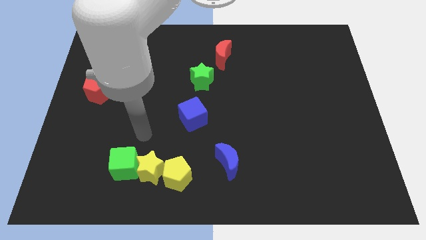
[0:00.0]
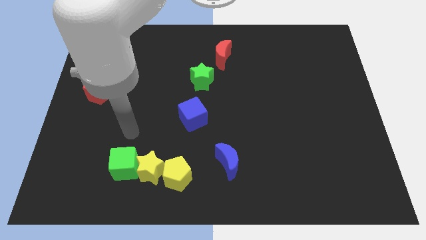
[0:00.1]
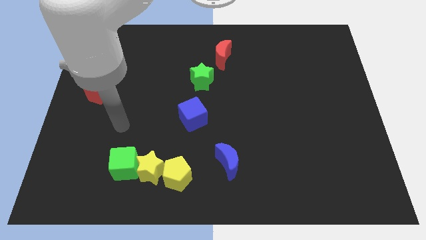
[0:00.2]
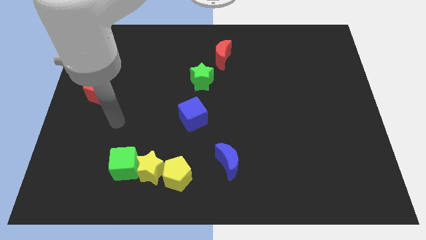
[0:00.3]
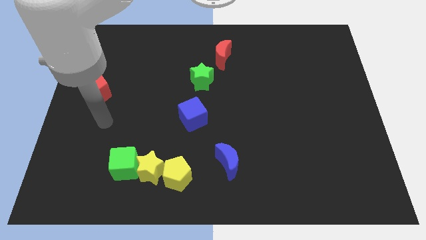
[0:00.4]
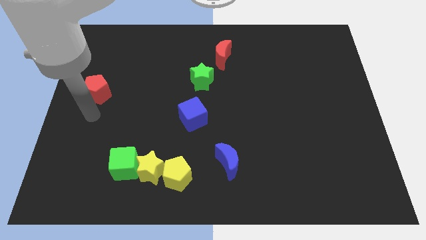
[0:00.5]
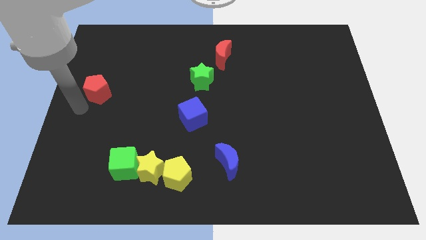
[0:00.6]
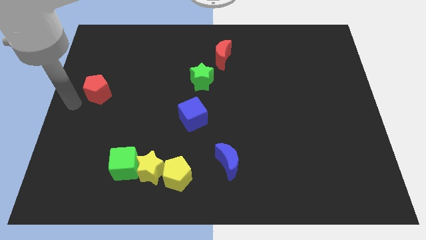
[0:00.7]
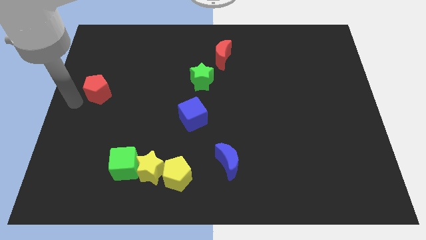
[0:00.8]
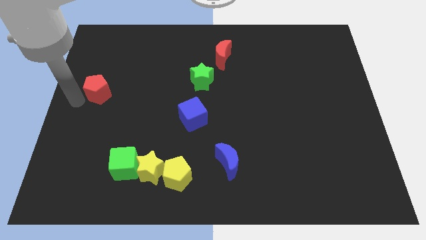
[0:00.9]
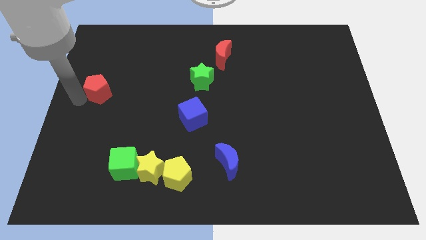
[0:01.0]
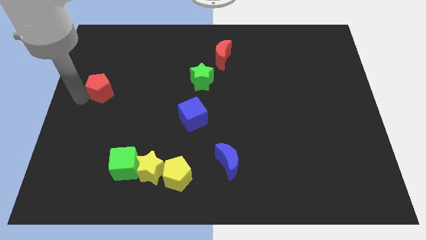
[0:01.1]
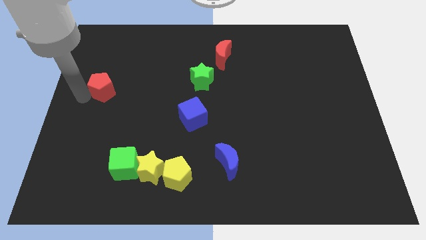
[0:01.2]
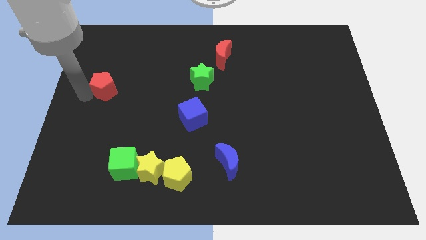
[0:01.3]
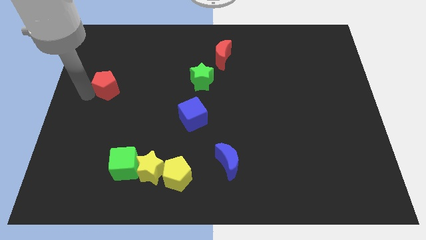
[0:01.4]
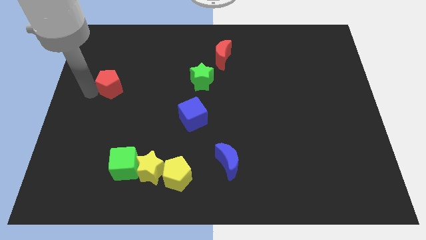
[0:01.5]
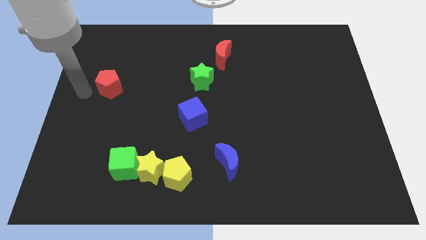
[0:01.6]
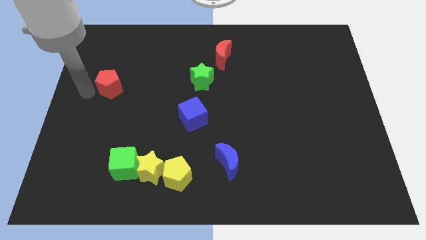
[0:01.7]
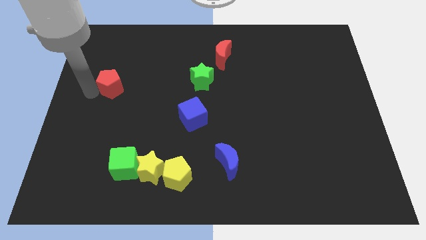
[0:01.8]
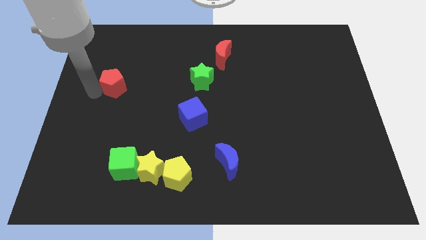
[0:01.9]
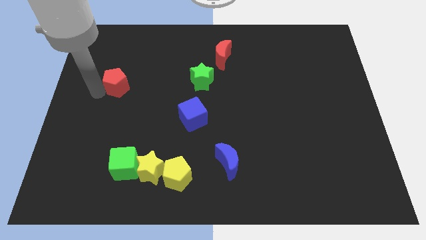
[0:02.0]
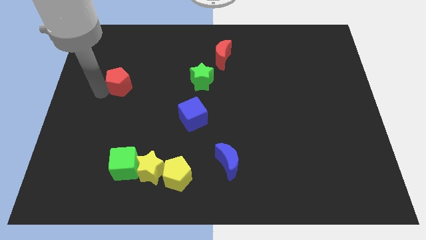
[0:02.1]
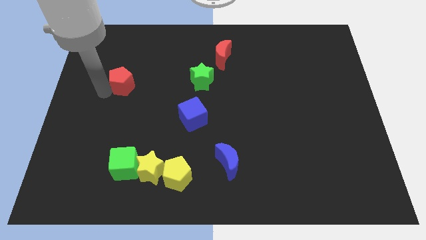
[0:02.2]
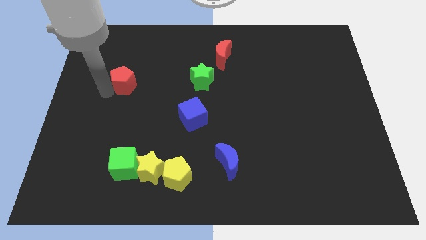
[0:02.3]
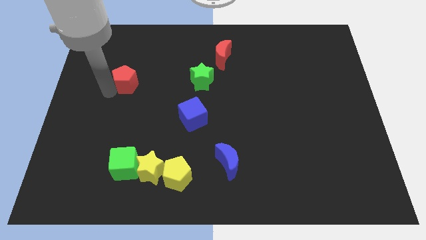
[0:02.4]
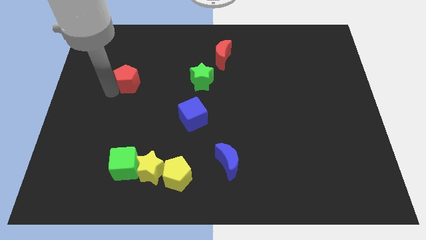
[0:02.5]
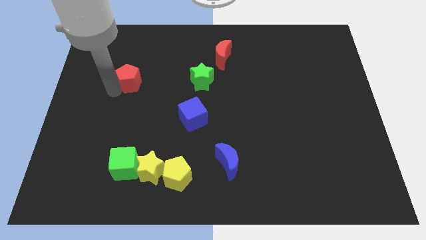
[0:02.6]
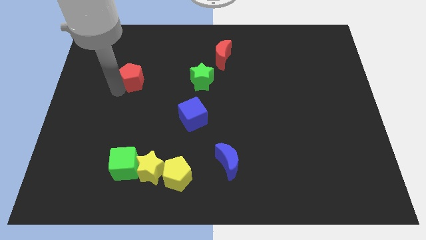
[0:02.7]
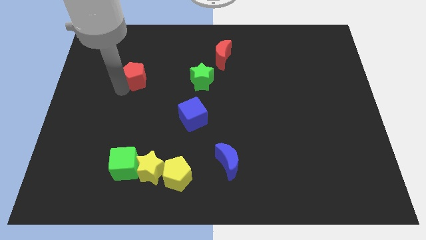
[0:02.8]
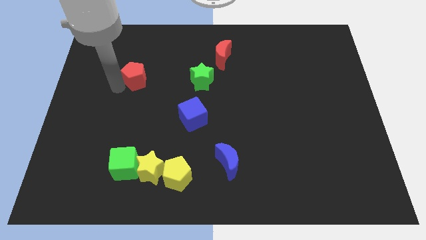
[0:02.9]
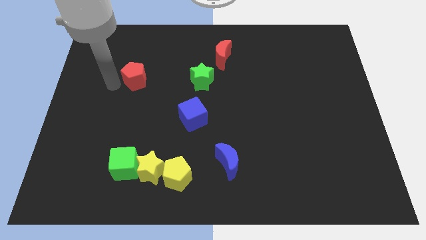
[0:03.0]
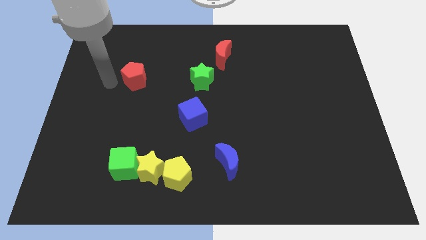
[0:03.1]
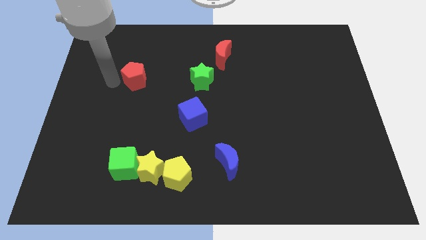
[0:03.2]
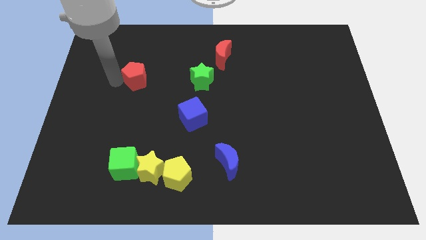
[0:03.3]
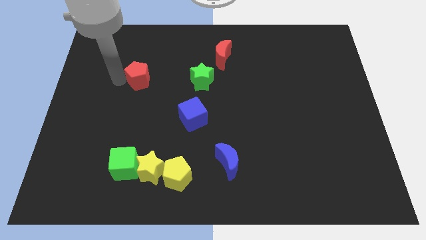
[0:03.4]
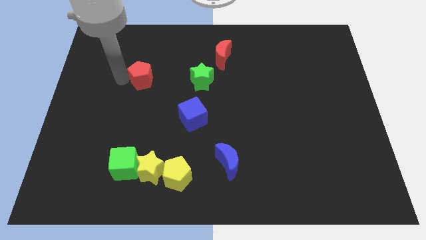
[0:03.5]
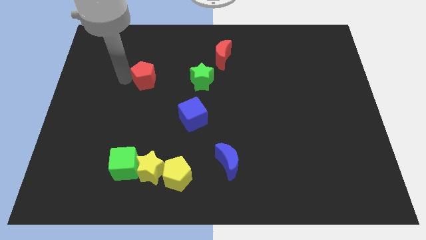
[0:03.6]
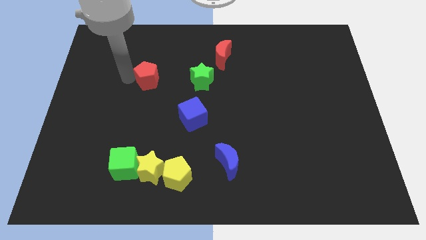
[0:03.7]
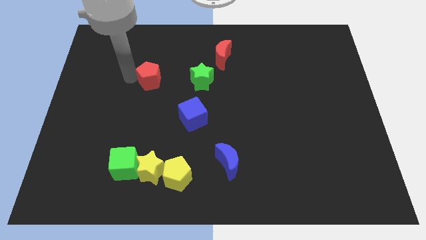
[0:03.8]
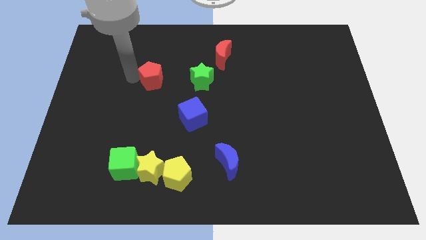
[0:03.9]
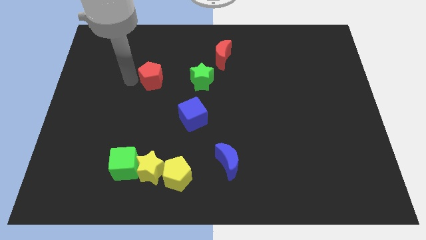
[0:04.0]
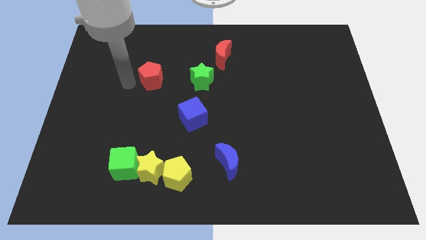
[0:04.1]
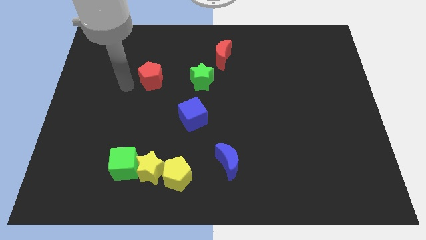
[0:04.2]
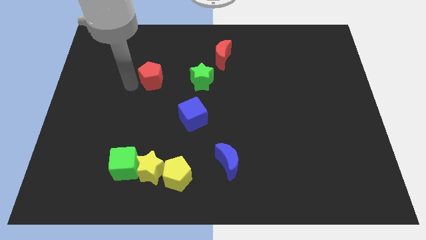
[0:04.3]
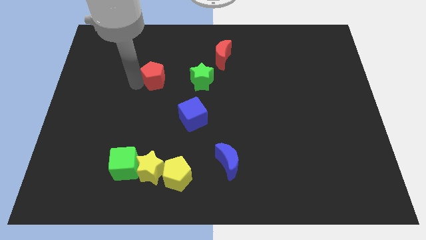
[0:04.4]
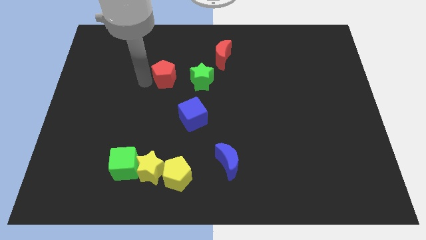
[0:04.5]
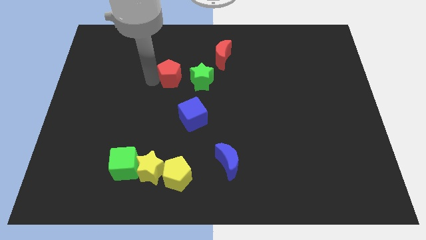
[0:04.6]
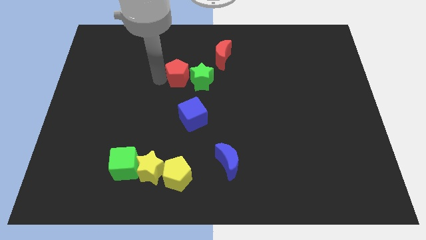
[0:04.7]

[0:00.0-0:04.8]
slide the red pentagon close to the green star

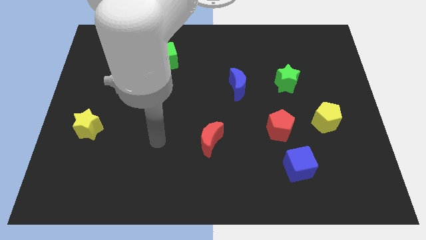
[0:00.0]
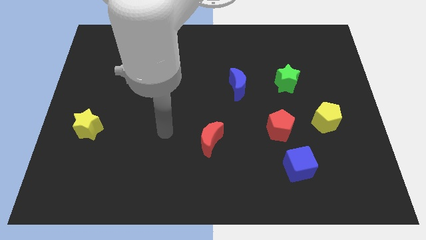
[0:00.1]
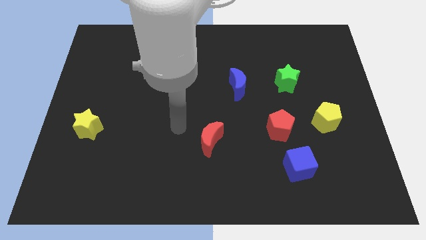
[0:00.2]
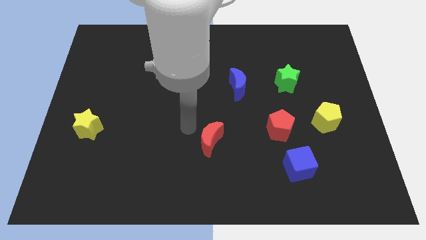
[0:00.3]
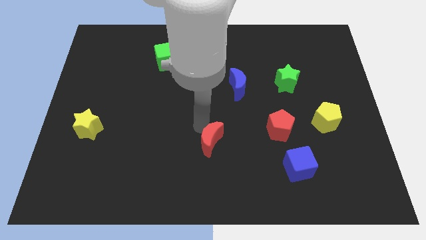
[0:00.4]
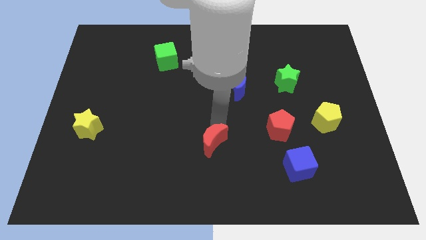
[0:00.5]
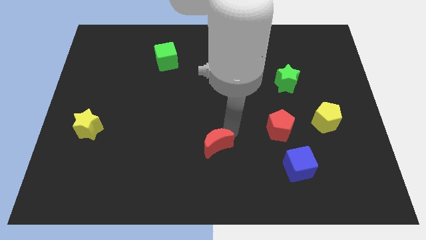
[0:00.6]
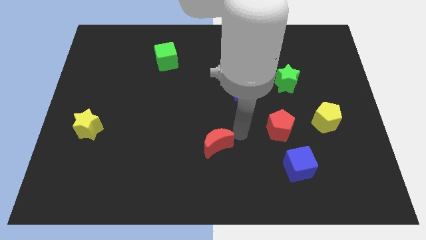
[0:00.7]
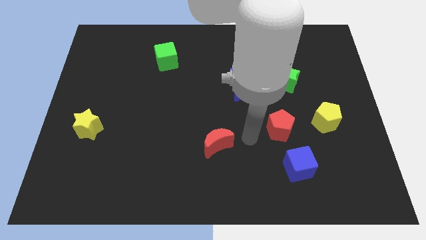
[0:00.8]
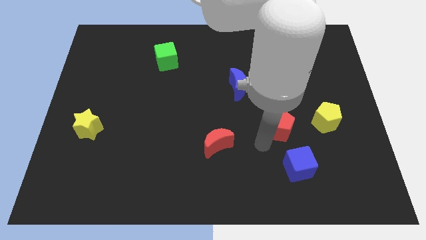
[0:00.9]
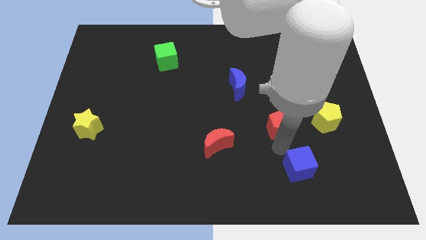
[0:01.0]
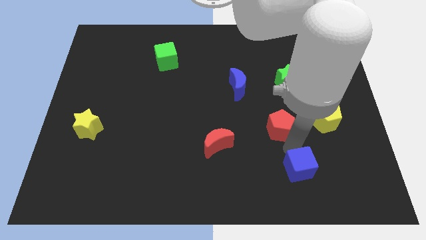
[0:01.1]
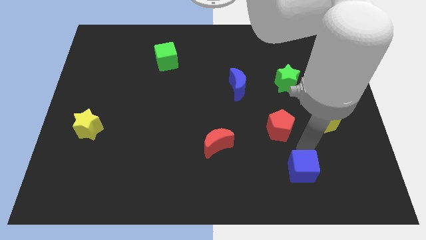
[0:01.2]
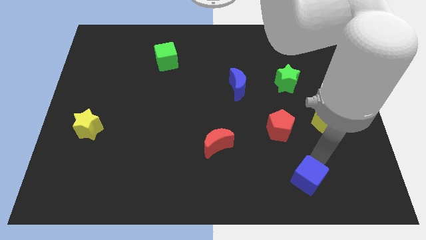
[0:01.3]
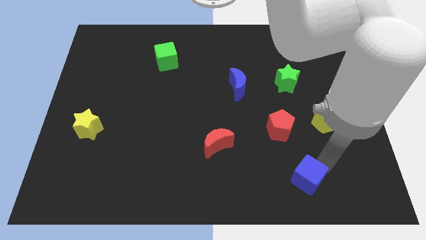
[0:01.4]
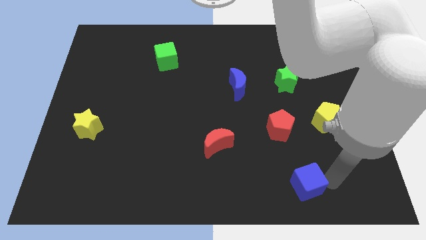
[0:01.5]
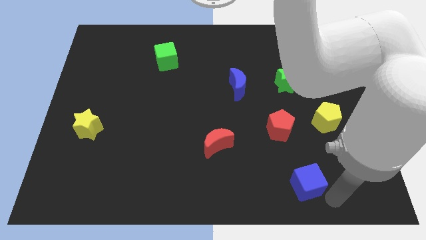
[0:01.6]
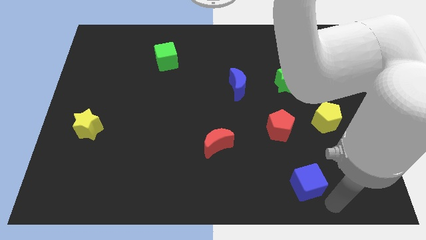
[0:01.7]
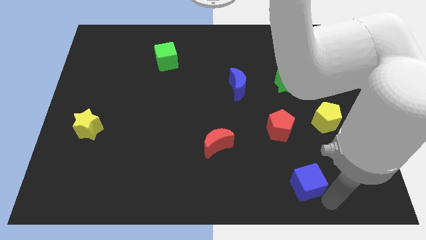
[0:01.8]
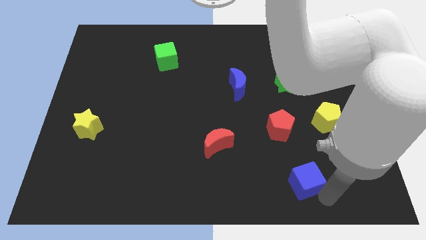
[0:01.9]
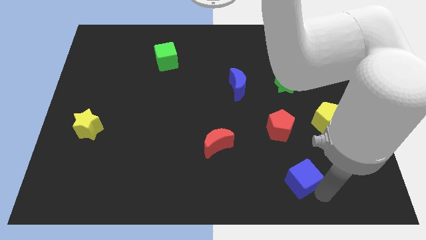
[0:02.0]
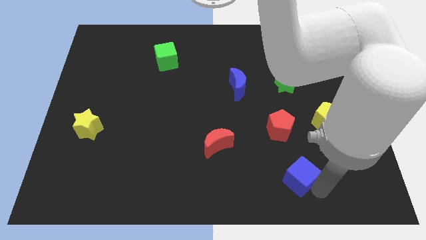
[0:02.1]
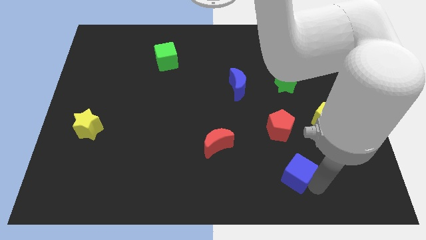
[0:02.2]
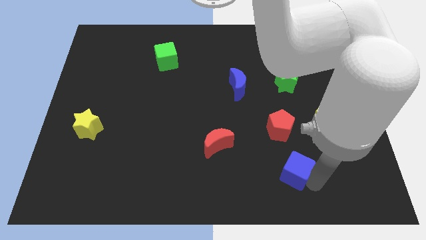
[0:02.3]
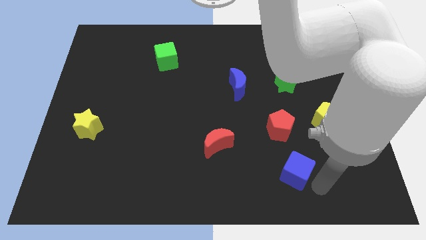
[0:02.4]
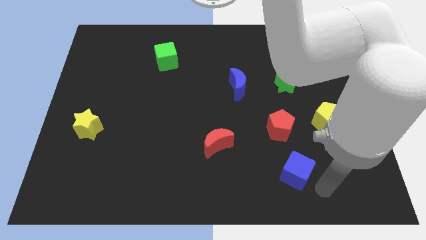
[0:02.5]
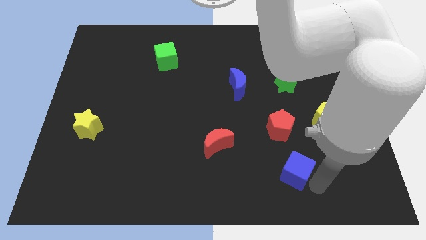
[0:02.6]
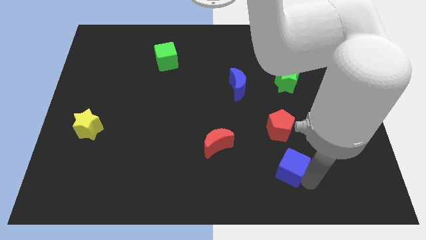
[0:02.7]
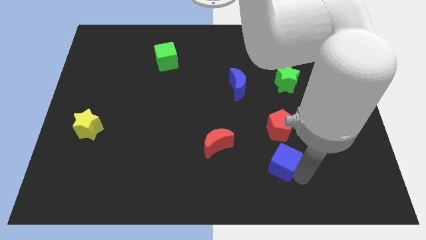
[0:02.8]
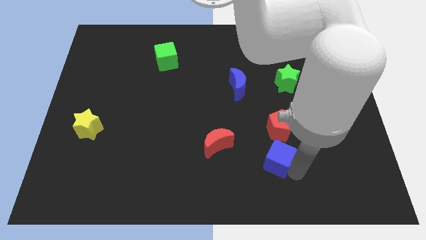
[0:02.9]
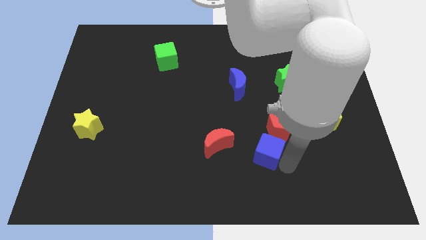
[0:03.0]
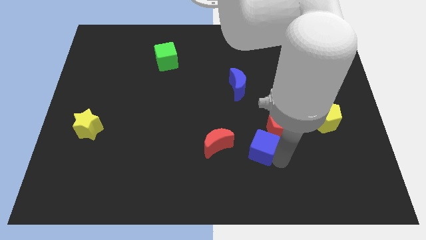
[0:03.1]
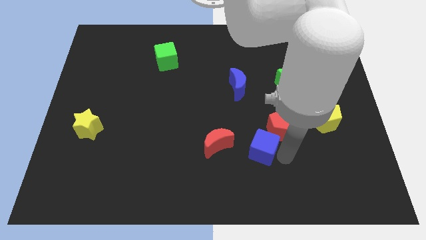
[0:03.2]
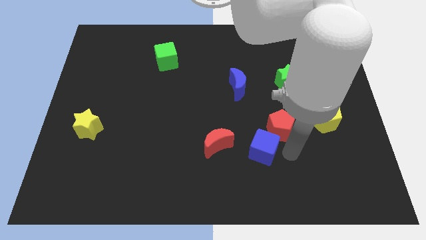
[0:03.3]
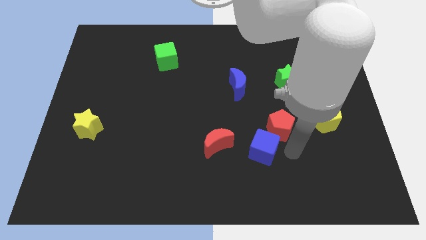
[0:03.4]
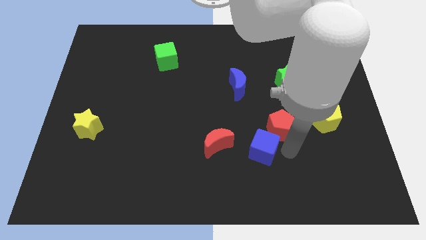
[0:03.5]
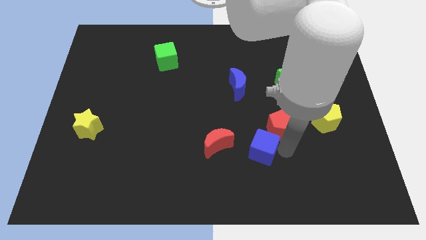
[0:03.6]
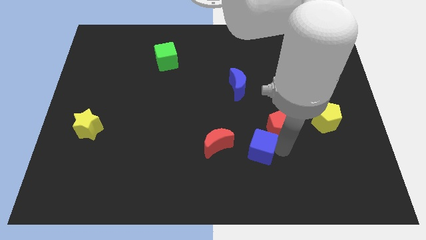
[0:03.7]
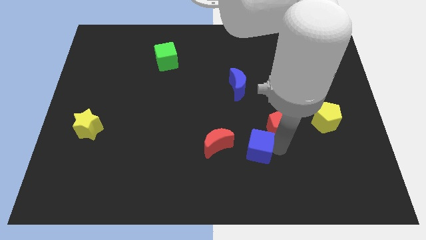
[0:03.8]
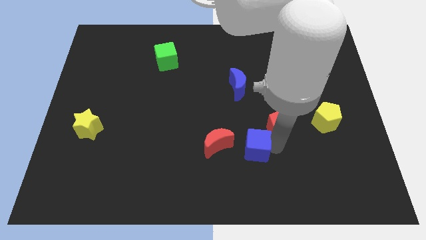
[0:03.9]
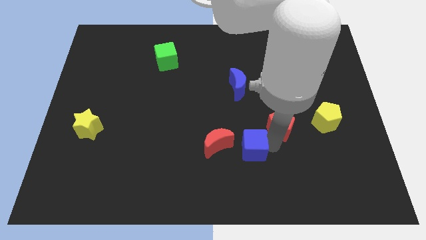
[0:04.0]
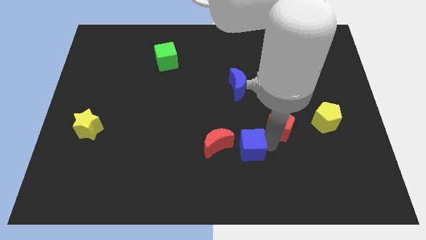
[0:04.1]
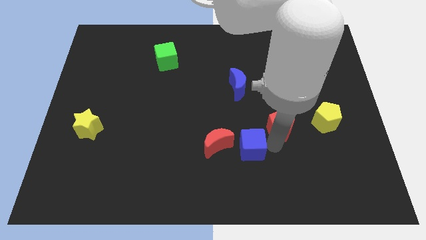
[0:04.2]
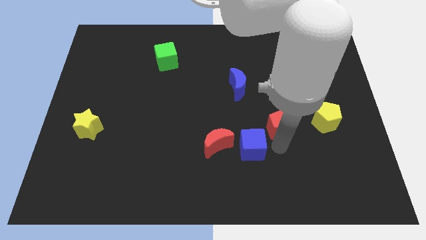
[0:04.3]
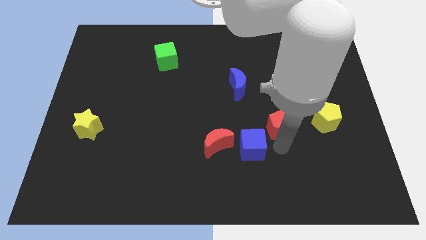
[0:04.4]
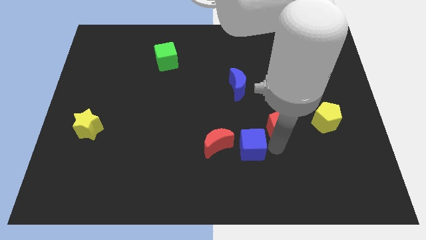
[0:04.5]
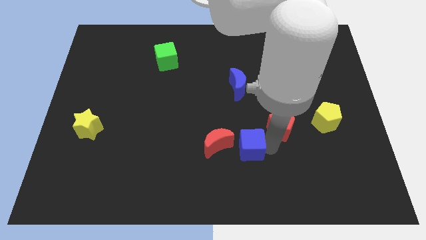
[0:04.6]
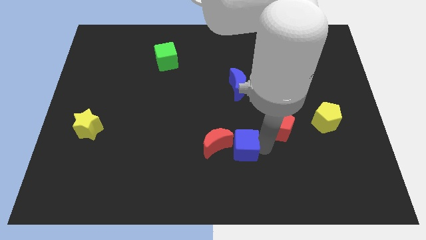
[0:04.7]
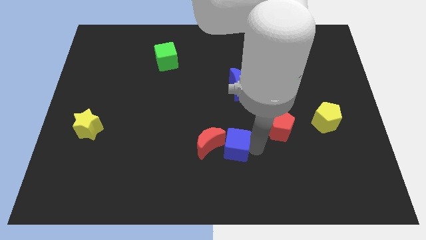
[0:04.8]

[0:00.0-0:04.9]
put the blue cube close to the red moon
